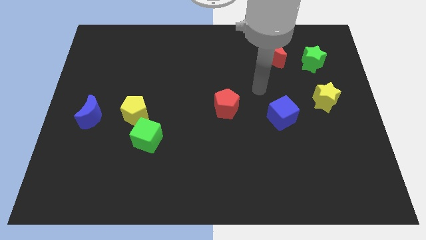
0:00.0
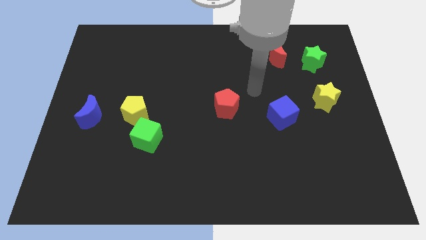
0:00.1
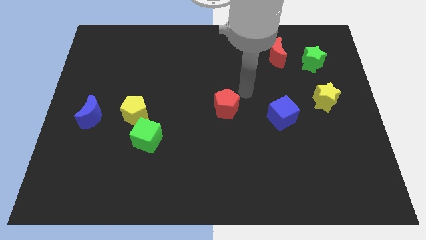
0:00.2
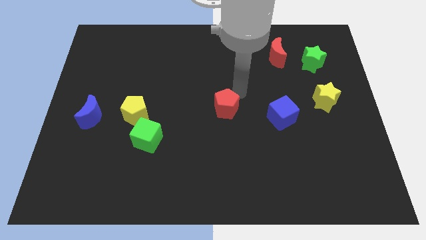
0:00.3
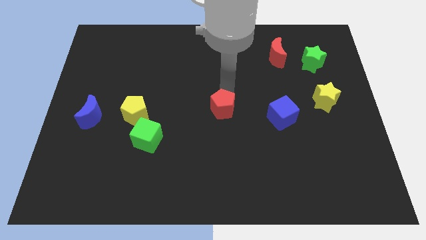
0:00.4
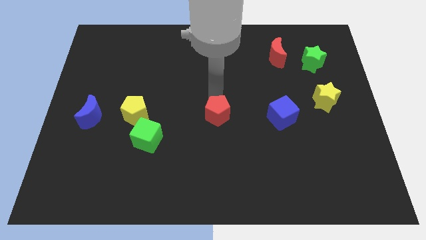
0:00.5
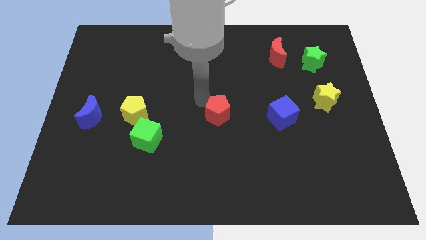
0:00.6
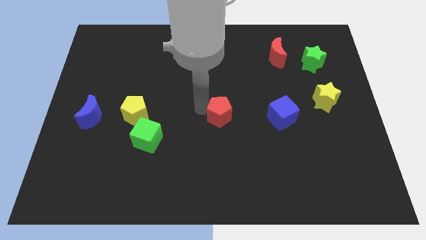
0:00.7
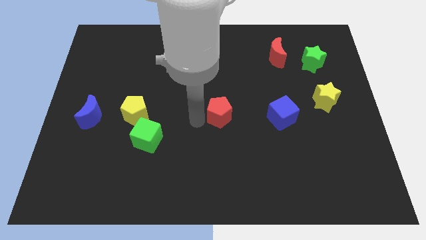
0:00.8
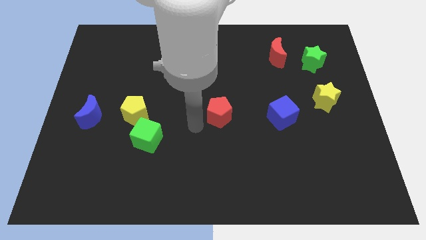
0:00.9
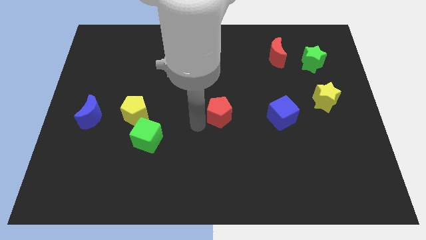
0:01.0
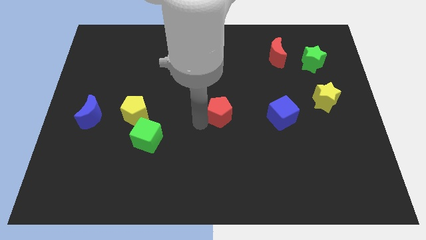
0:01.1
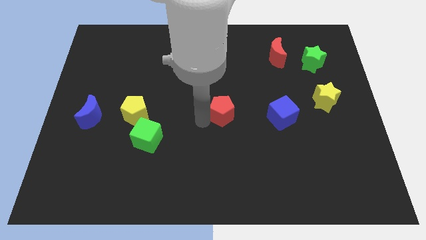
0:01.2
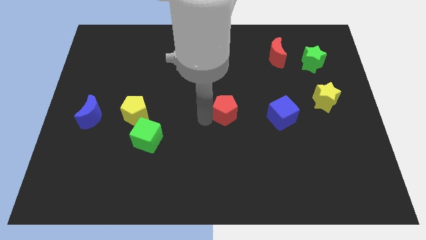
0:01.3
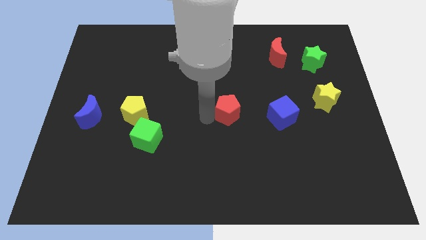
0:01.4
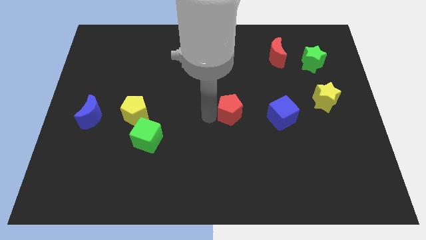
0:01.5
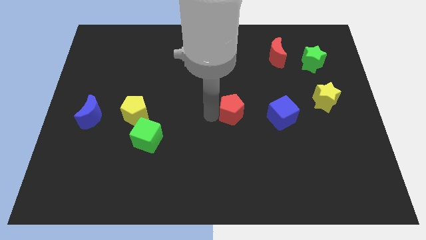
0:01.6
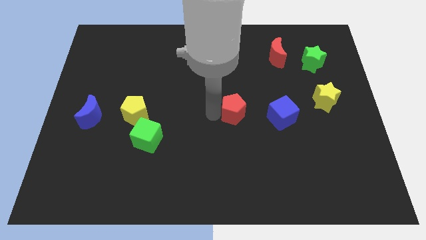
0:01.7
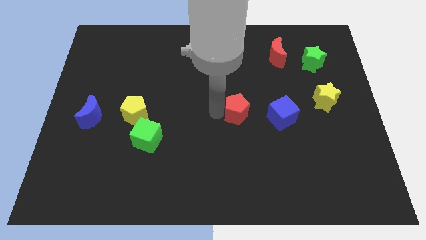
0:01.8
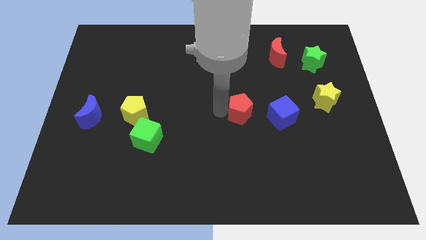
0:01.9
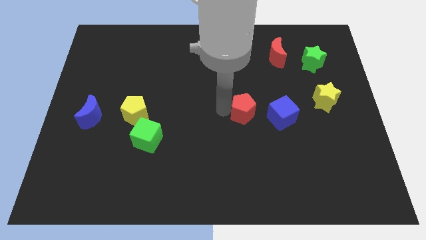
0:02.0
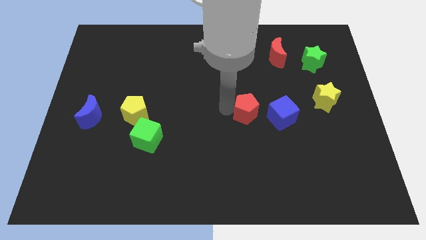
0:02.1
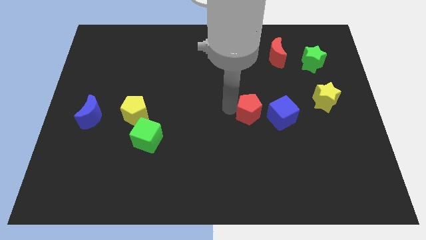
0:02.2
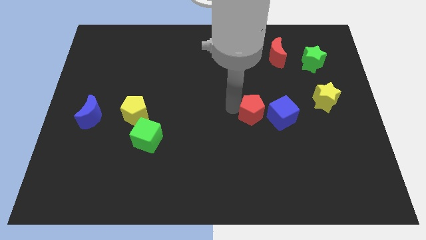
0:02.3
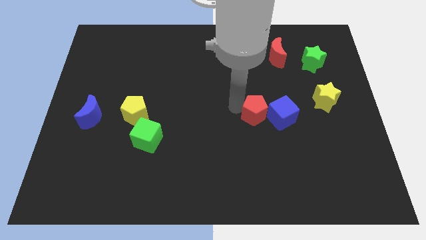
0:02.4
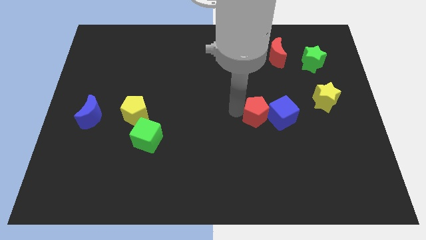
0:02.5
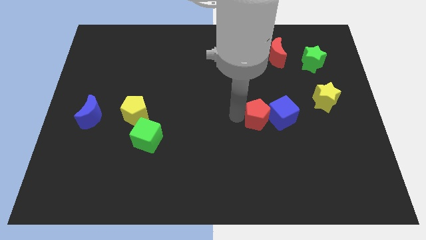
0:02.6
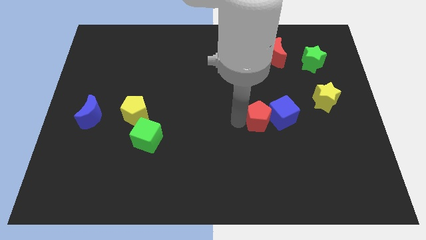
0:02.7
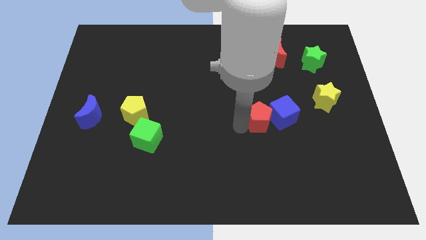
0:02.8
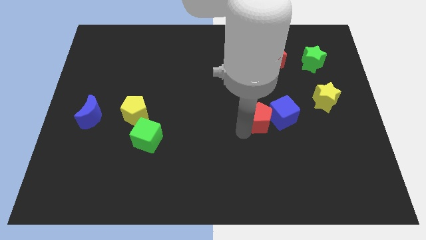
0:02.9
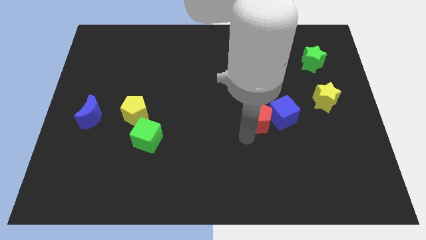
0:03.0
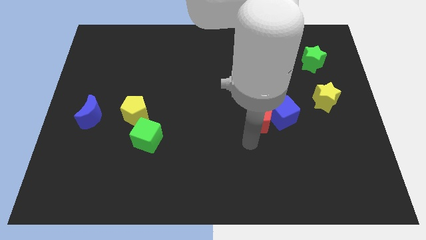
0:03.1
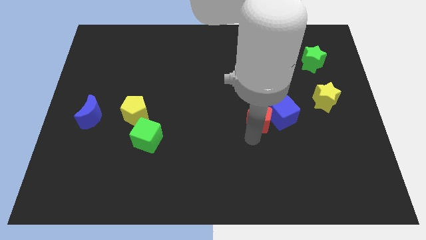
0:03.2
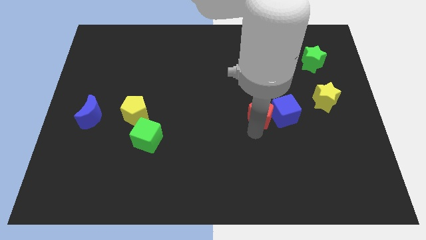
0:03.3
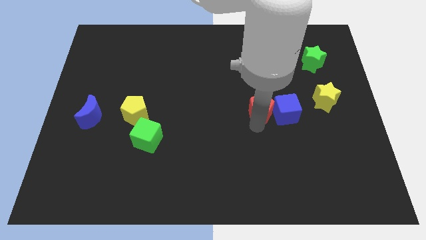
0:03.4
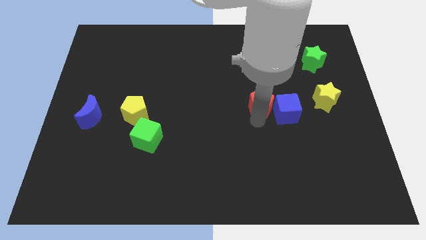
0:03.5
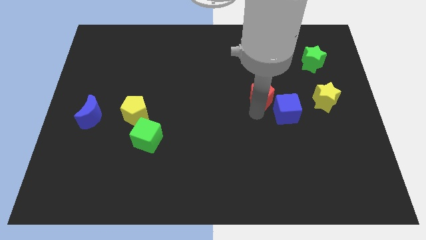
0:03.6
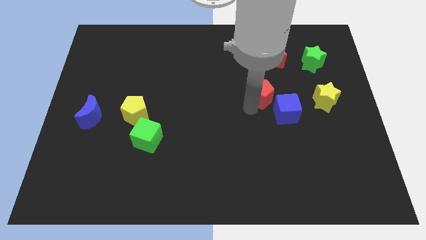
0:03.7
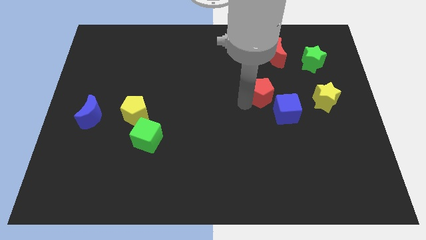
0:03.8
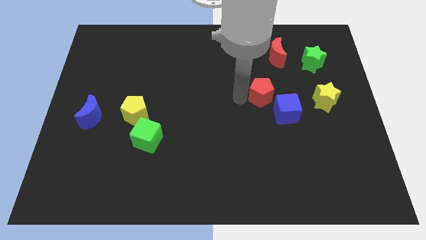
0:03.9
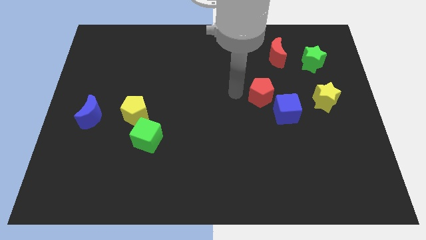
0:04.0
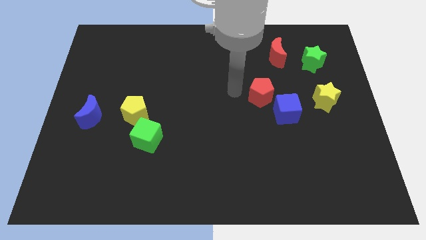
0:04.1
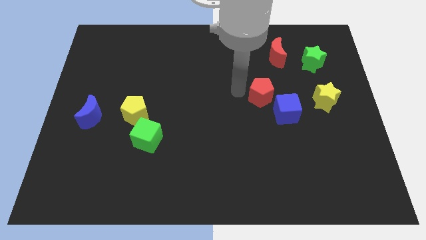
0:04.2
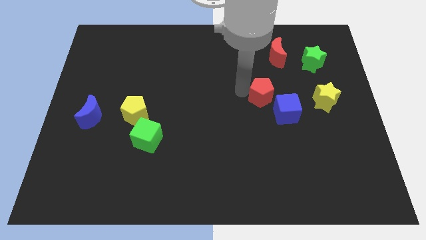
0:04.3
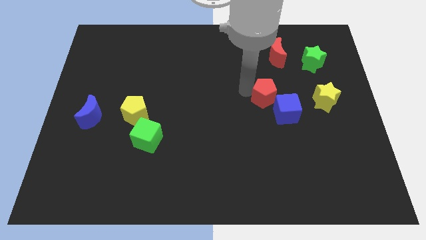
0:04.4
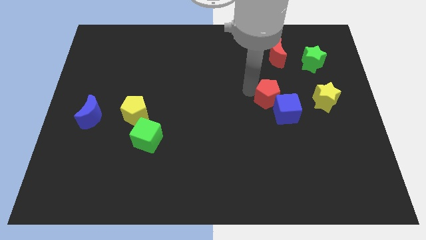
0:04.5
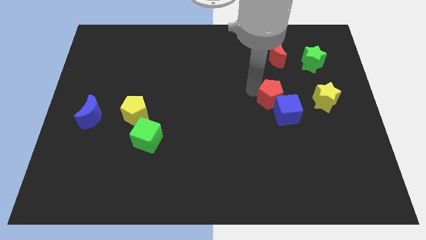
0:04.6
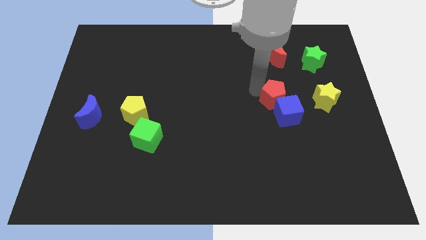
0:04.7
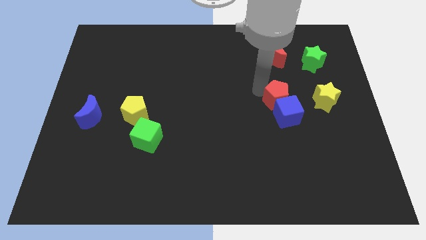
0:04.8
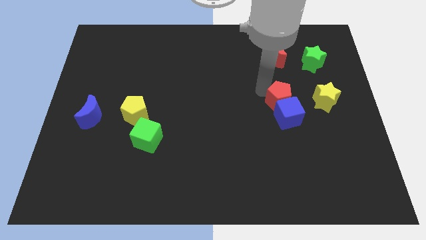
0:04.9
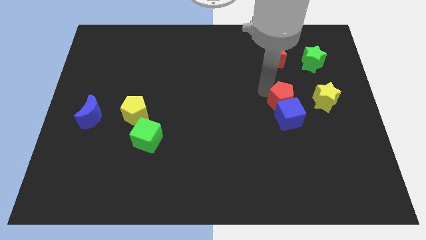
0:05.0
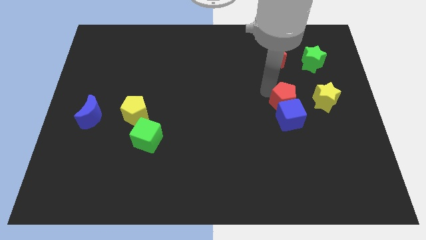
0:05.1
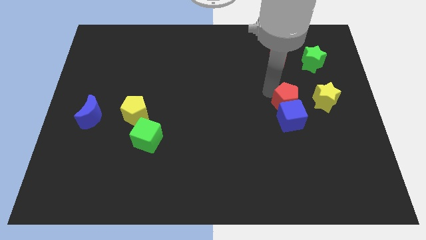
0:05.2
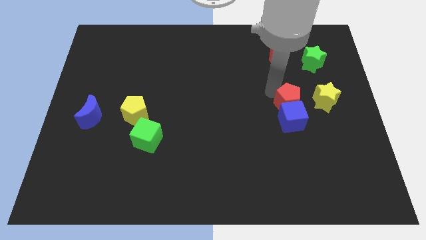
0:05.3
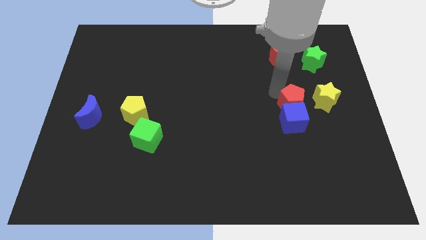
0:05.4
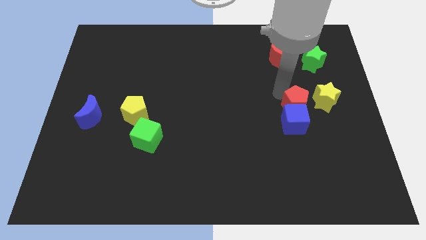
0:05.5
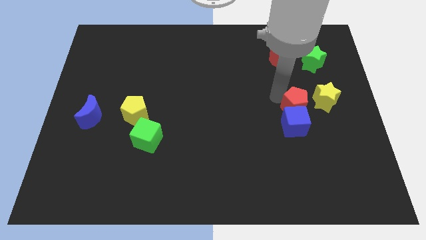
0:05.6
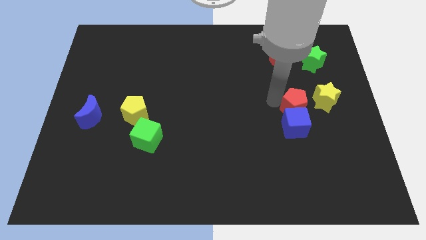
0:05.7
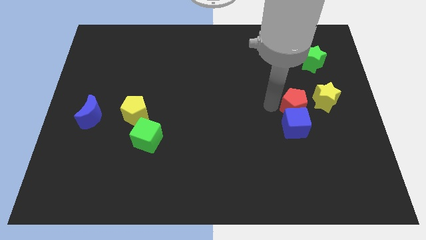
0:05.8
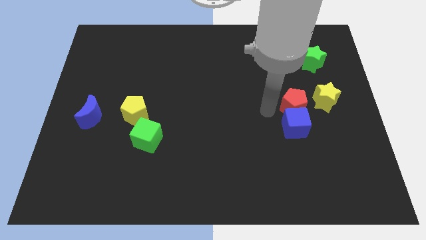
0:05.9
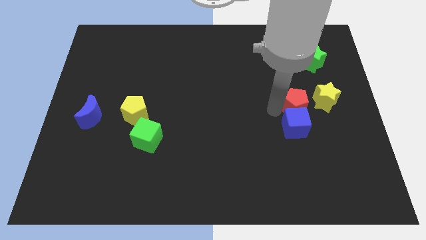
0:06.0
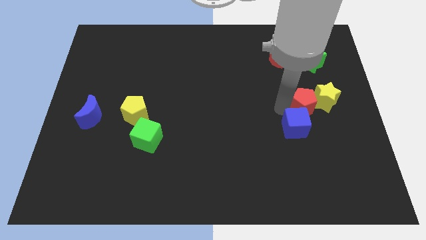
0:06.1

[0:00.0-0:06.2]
push the red pentagon to the yellow star
